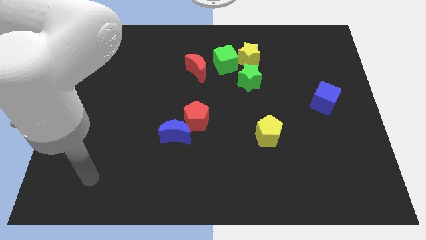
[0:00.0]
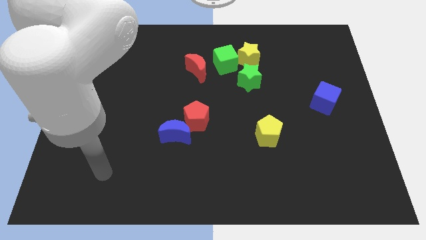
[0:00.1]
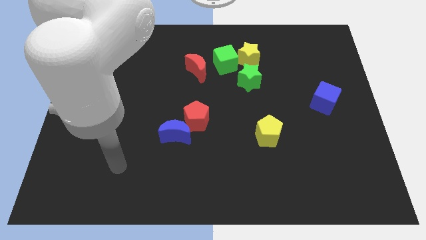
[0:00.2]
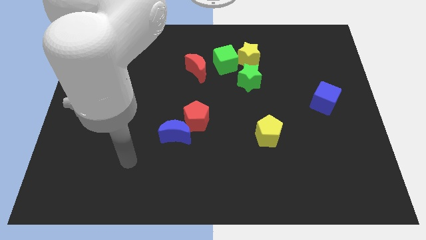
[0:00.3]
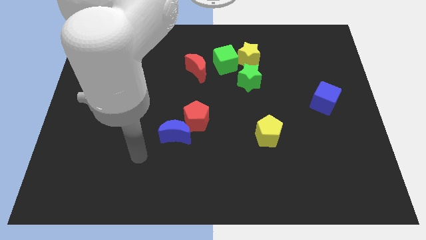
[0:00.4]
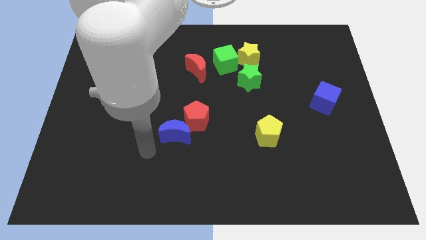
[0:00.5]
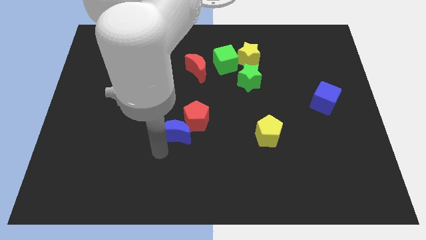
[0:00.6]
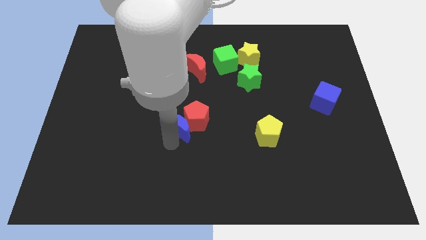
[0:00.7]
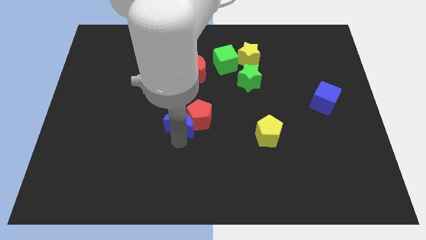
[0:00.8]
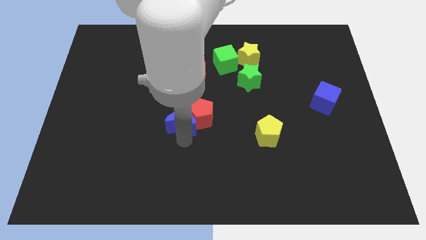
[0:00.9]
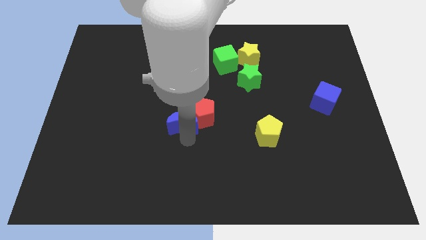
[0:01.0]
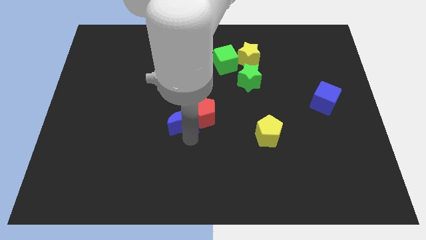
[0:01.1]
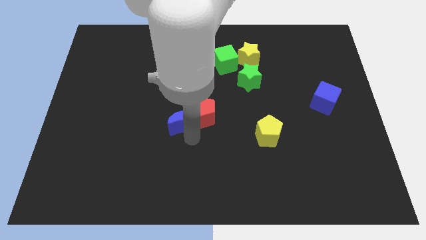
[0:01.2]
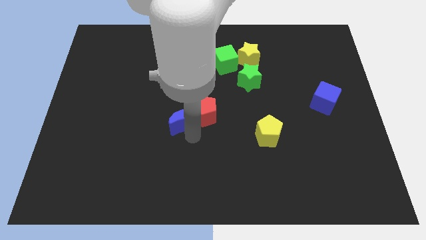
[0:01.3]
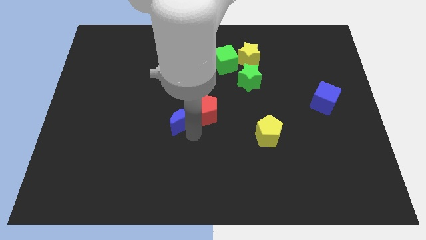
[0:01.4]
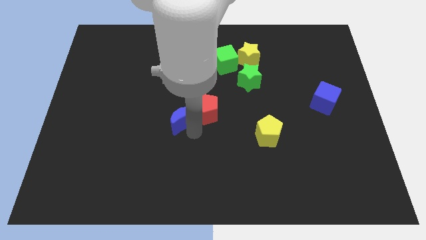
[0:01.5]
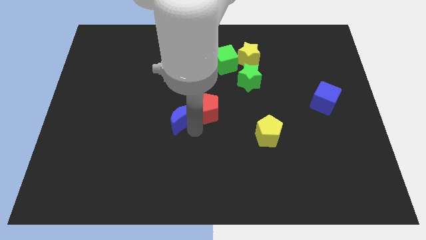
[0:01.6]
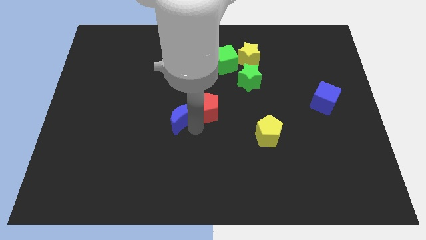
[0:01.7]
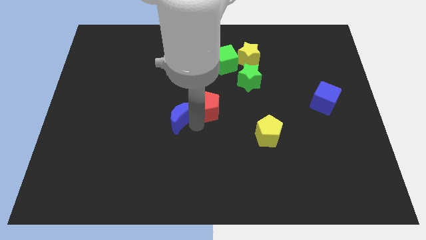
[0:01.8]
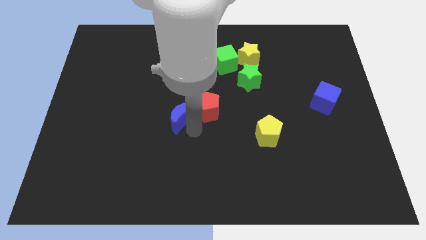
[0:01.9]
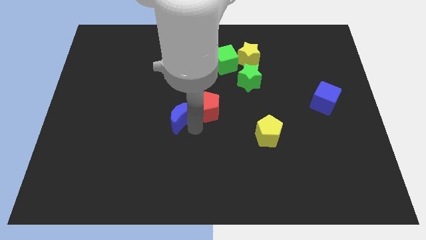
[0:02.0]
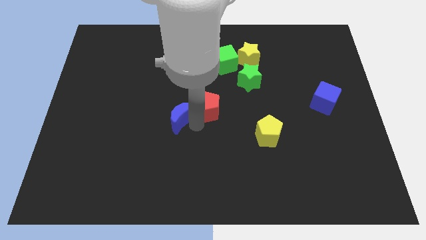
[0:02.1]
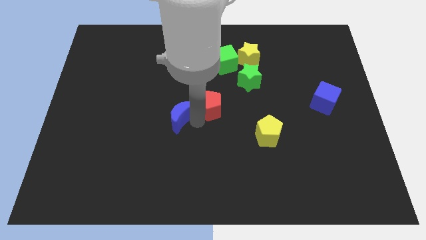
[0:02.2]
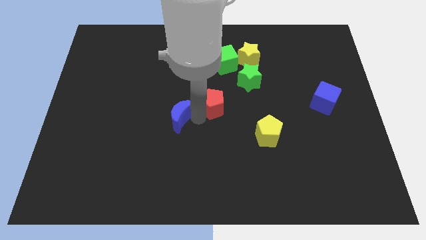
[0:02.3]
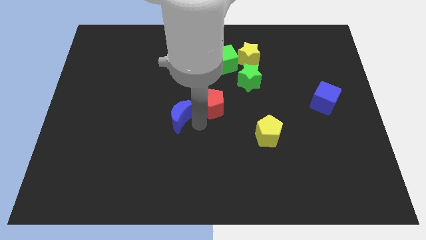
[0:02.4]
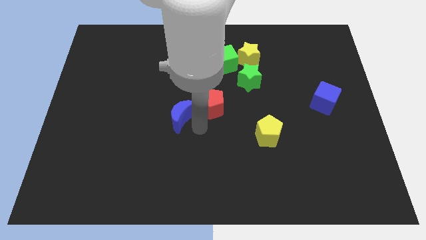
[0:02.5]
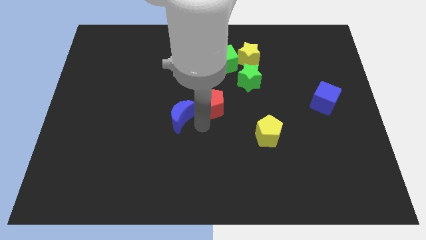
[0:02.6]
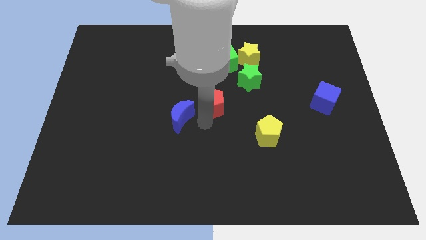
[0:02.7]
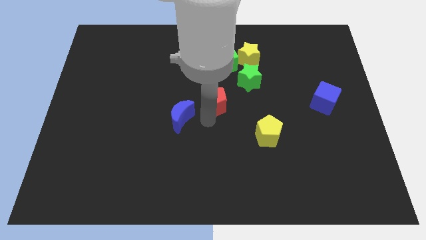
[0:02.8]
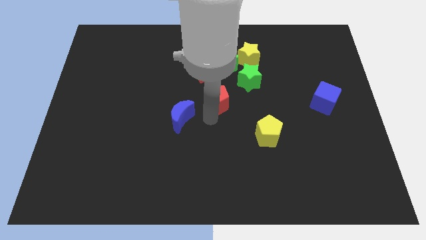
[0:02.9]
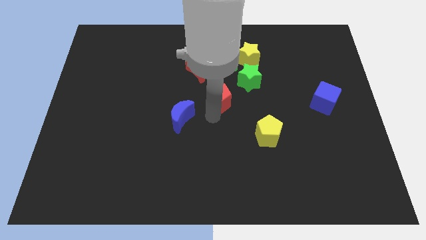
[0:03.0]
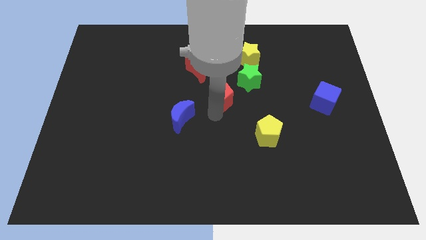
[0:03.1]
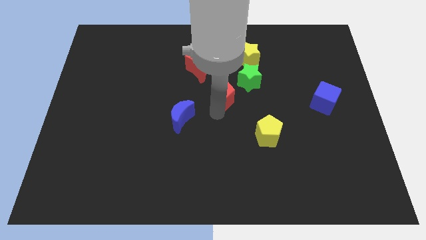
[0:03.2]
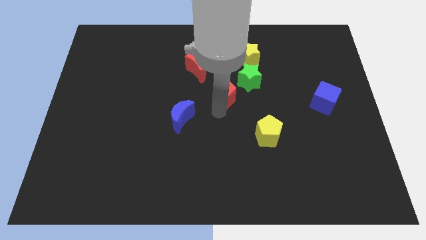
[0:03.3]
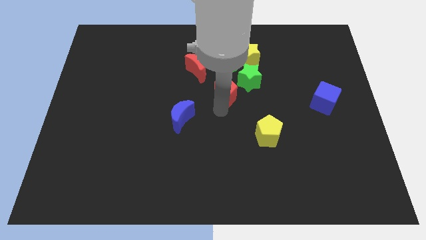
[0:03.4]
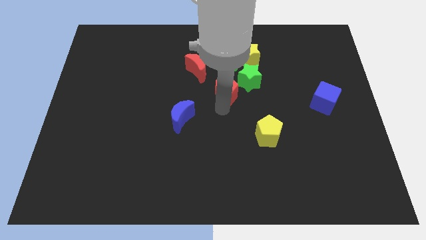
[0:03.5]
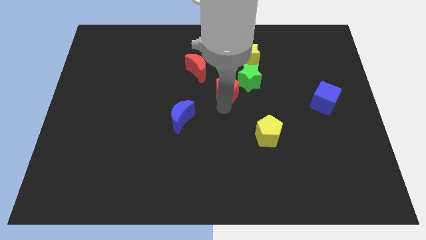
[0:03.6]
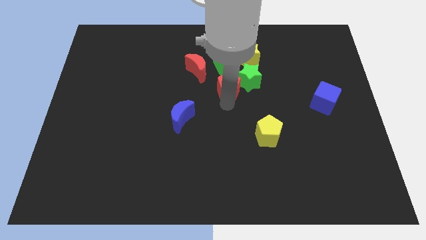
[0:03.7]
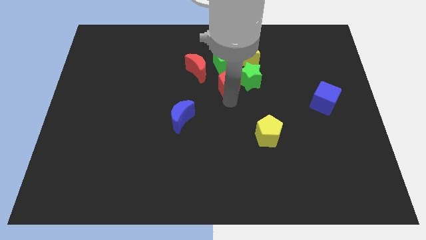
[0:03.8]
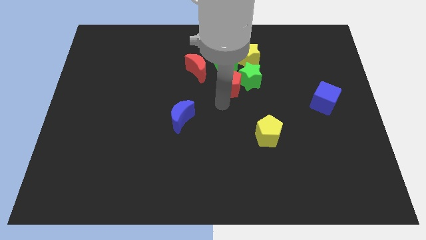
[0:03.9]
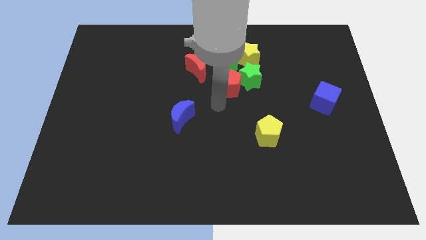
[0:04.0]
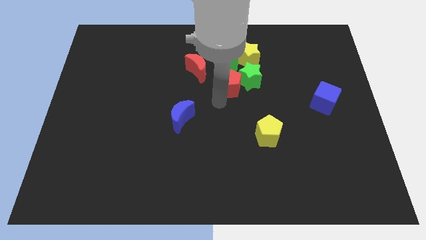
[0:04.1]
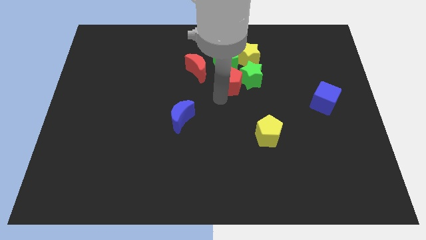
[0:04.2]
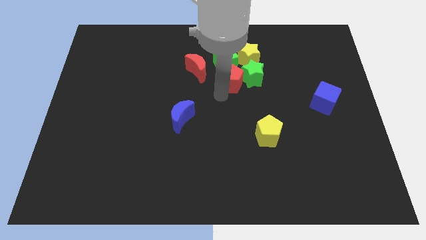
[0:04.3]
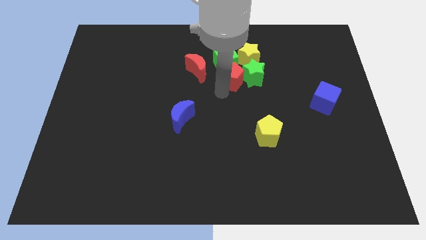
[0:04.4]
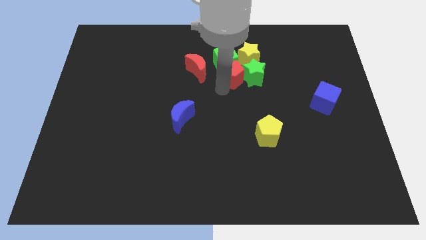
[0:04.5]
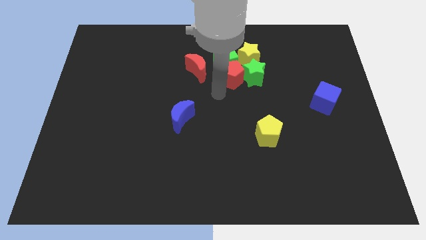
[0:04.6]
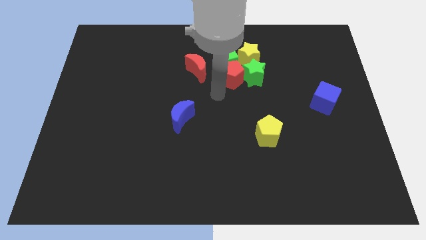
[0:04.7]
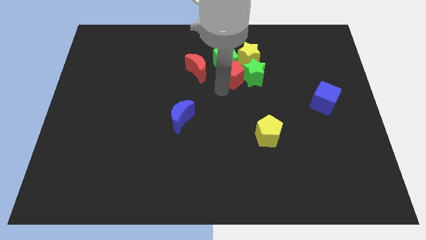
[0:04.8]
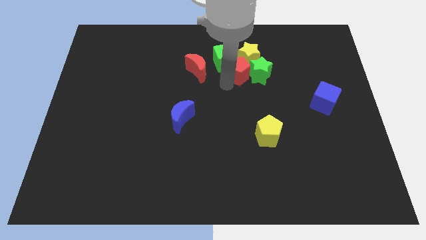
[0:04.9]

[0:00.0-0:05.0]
move the red pentagon towards the yellow star

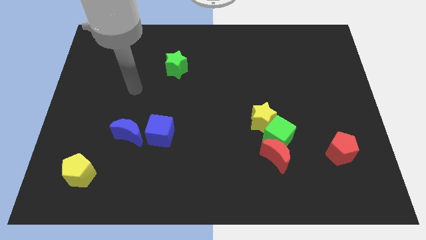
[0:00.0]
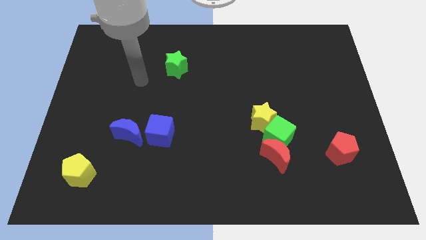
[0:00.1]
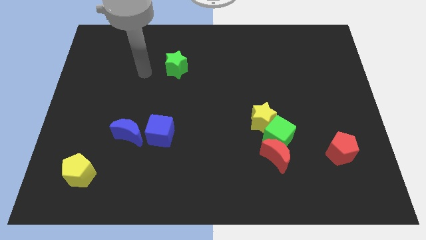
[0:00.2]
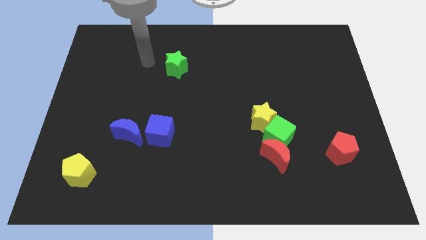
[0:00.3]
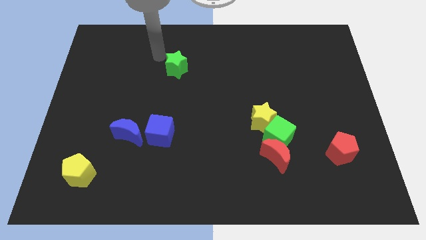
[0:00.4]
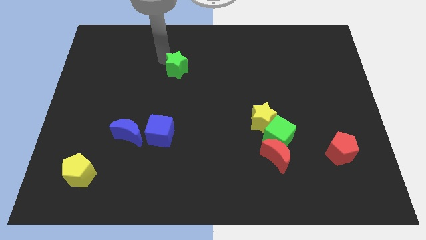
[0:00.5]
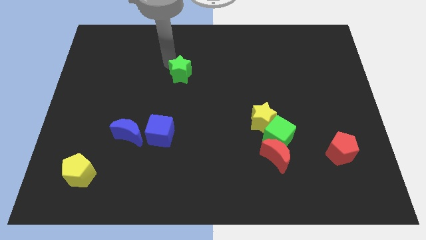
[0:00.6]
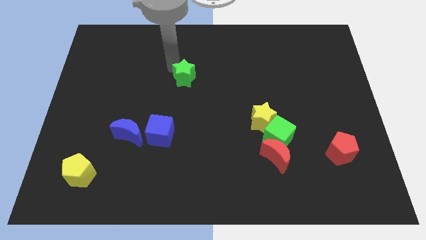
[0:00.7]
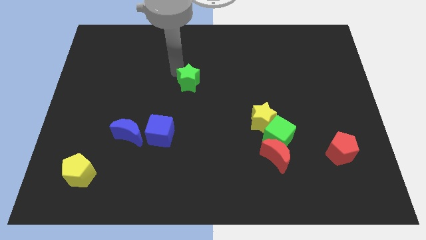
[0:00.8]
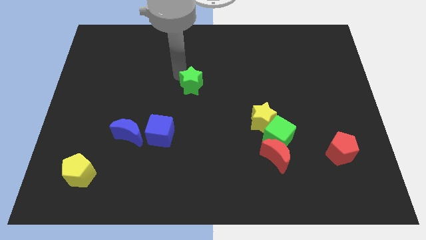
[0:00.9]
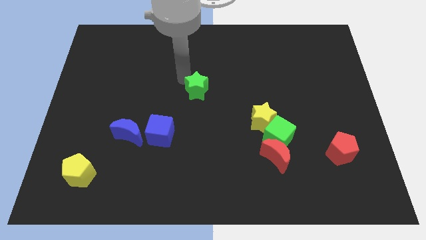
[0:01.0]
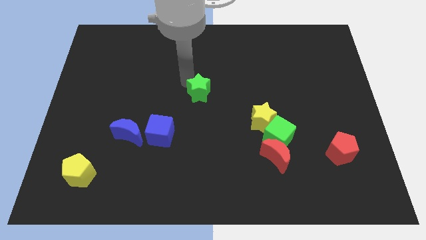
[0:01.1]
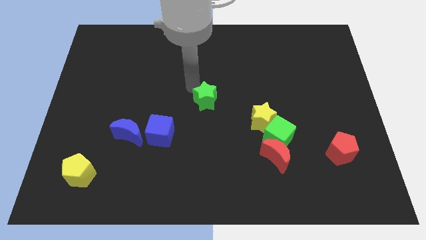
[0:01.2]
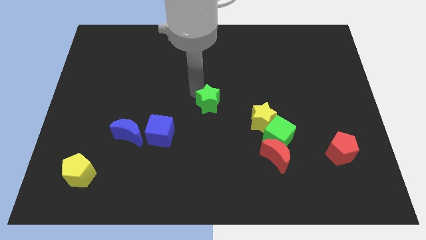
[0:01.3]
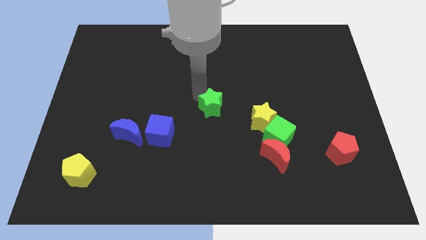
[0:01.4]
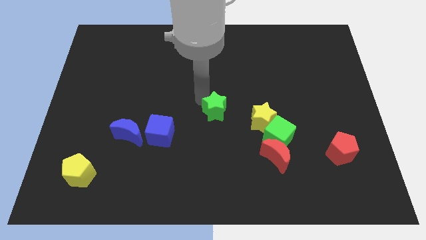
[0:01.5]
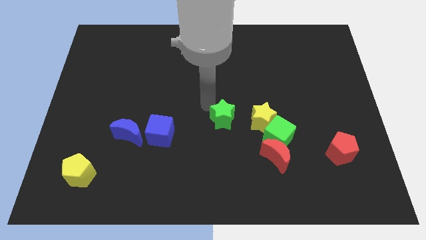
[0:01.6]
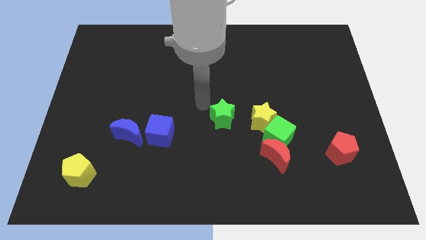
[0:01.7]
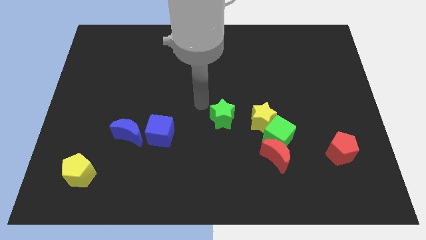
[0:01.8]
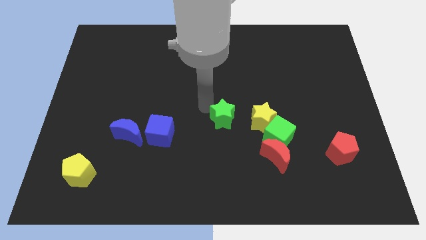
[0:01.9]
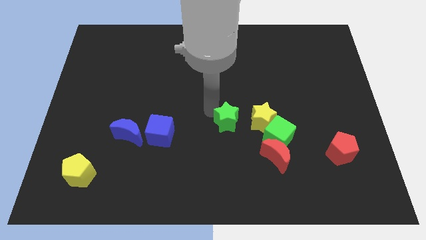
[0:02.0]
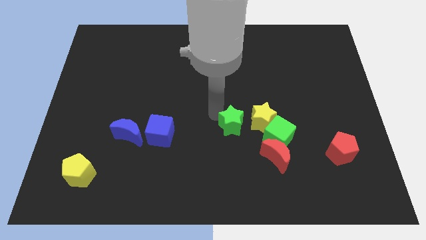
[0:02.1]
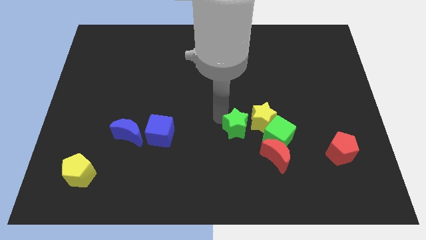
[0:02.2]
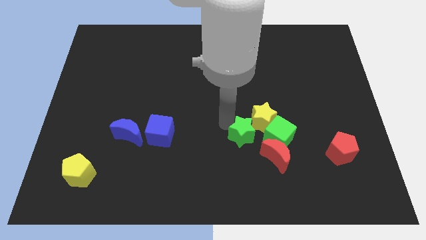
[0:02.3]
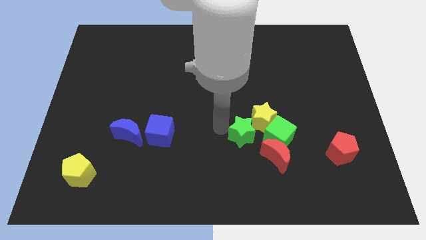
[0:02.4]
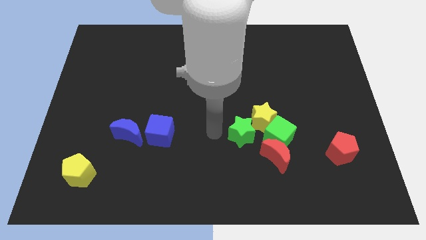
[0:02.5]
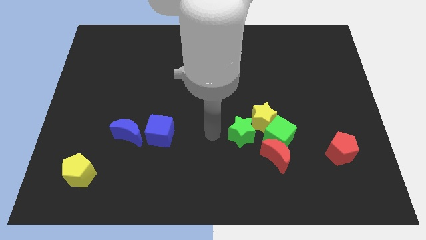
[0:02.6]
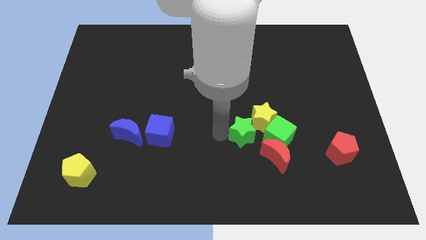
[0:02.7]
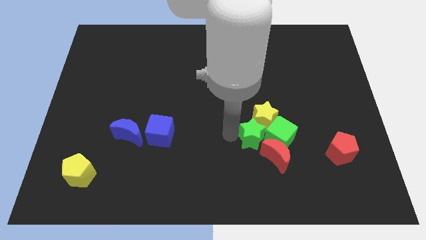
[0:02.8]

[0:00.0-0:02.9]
move the green star close to the green cube

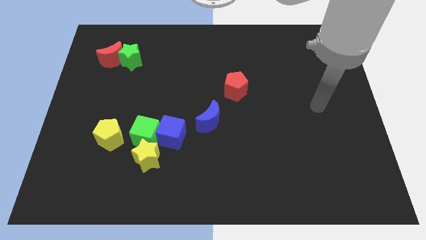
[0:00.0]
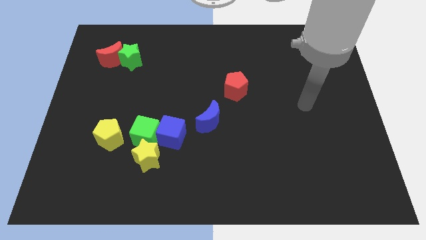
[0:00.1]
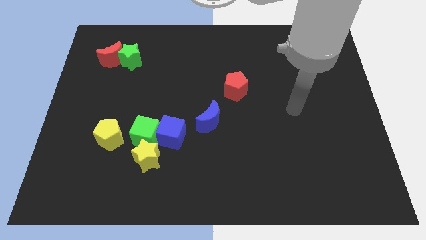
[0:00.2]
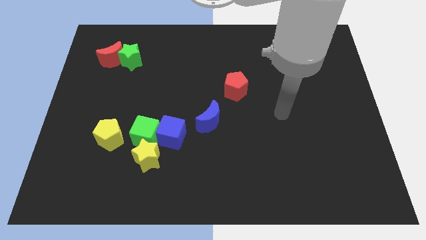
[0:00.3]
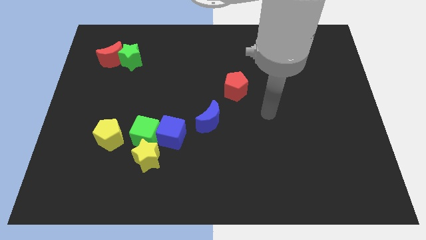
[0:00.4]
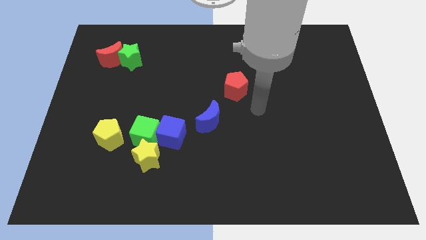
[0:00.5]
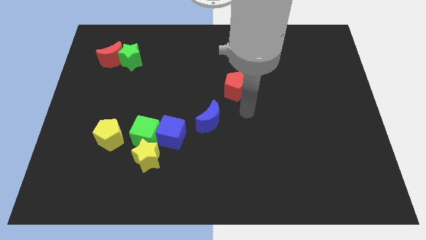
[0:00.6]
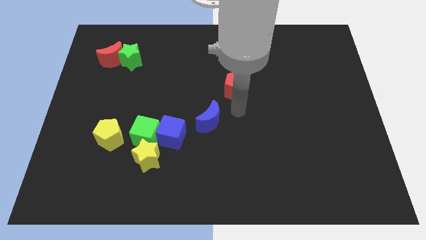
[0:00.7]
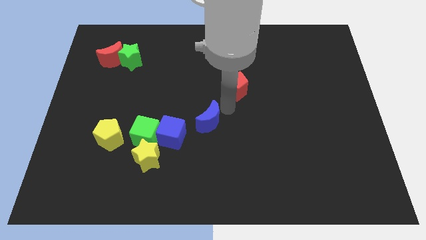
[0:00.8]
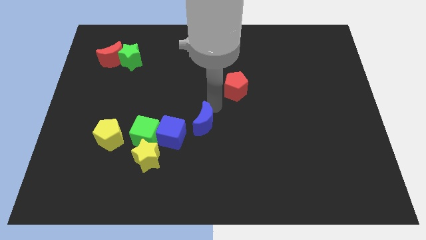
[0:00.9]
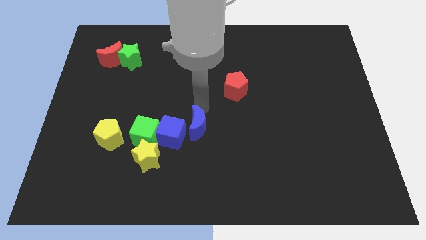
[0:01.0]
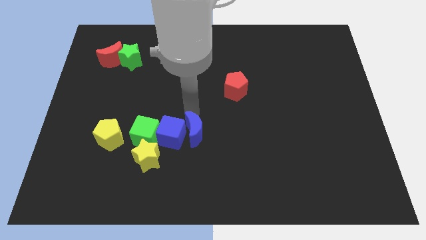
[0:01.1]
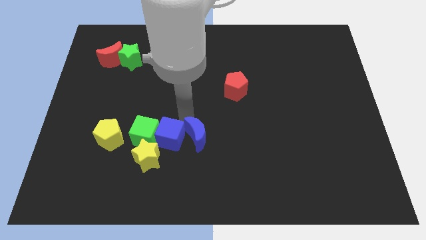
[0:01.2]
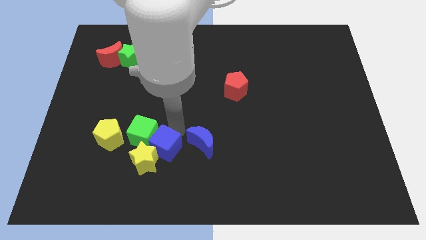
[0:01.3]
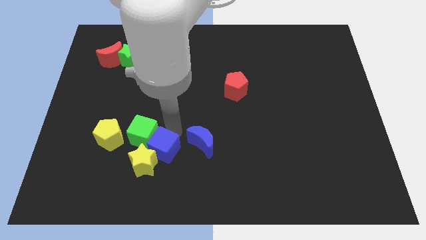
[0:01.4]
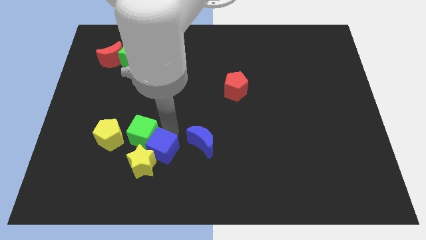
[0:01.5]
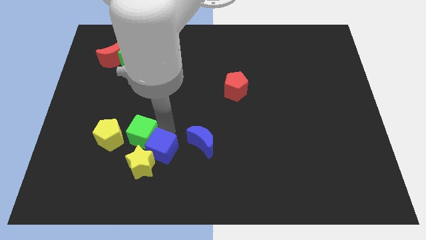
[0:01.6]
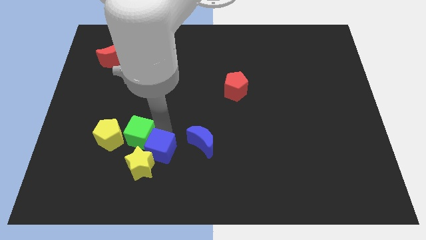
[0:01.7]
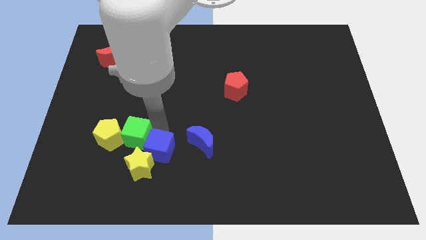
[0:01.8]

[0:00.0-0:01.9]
slide the green cube to the yellow pentagon
